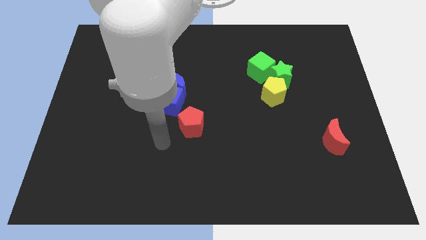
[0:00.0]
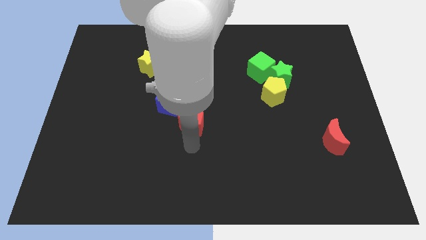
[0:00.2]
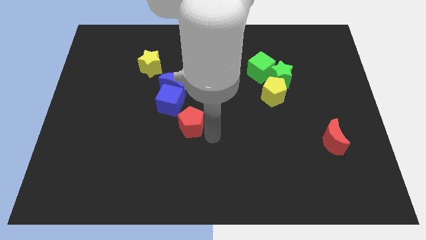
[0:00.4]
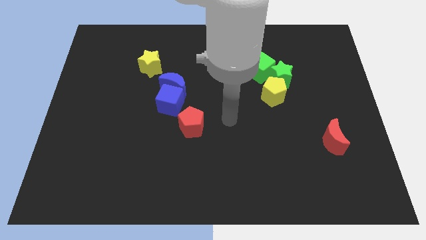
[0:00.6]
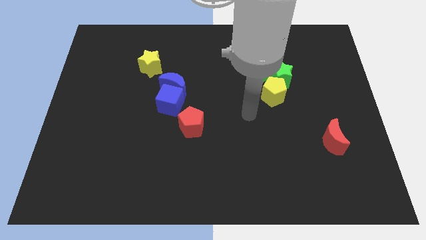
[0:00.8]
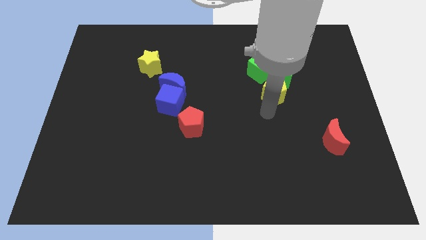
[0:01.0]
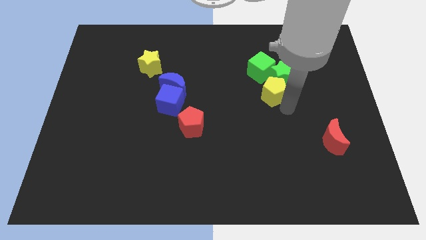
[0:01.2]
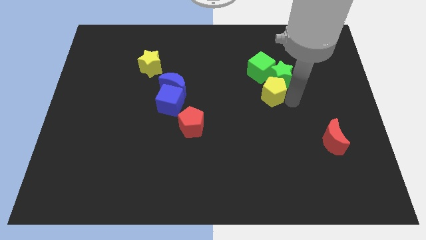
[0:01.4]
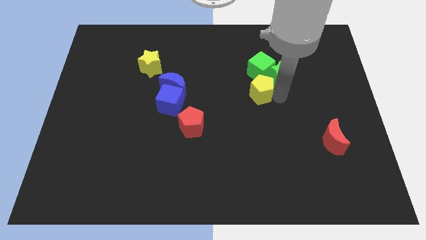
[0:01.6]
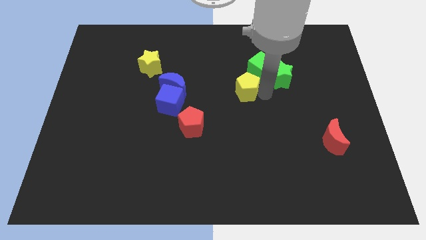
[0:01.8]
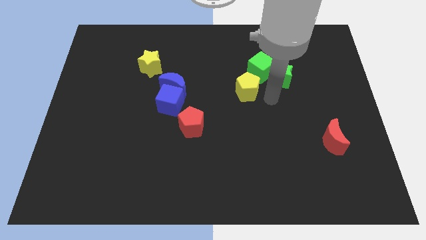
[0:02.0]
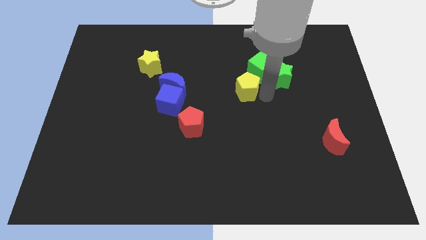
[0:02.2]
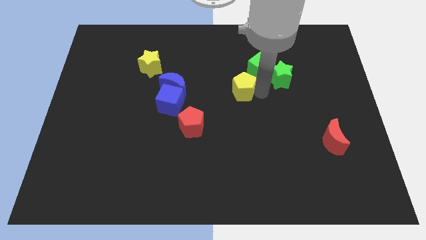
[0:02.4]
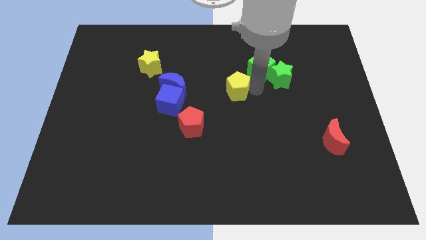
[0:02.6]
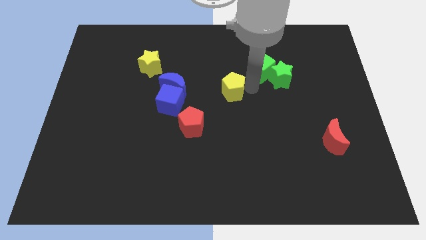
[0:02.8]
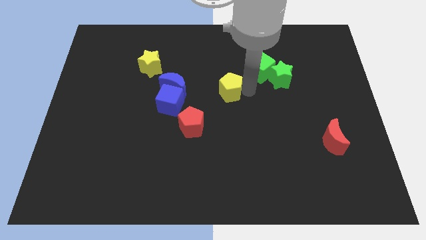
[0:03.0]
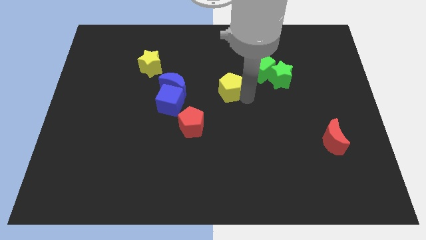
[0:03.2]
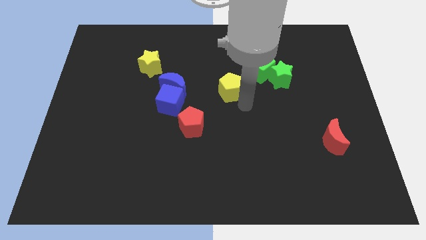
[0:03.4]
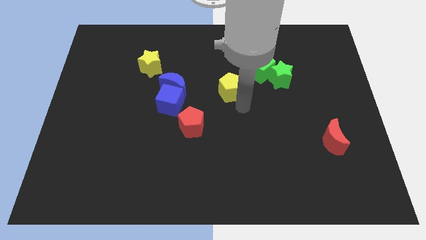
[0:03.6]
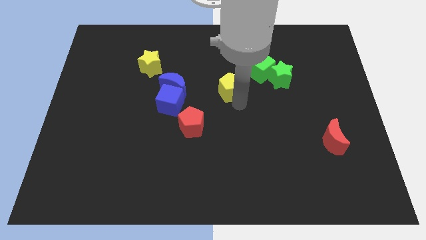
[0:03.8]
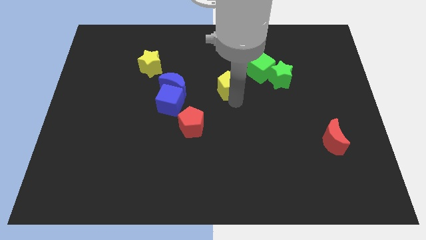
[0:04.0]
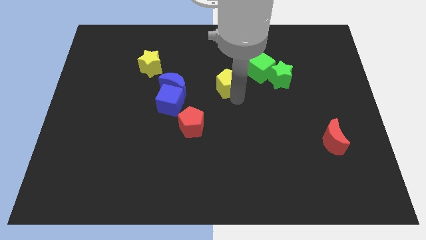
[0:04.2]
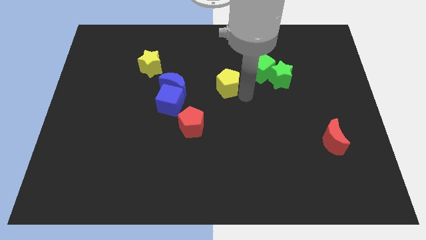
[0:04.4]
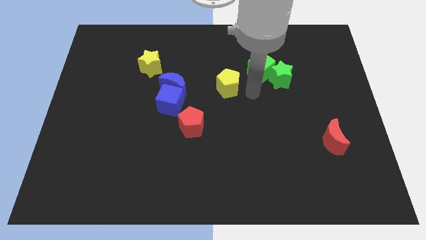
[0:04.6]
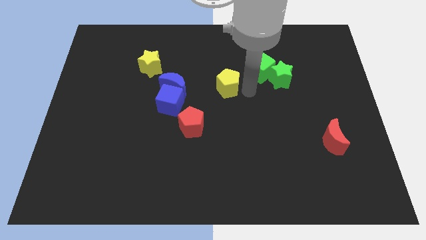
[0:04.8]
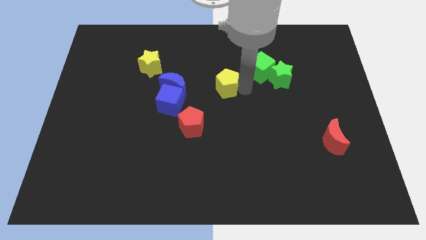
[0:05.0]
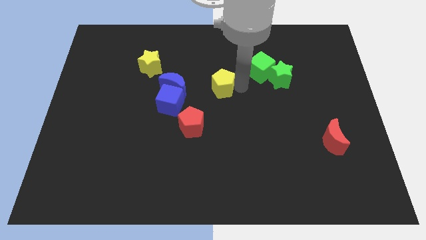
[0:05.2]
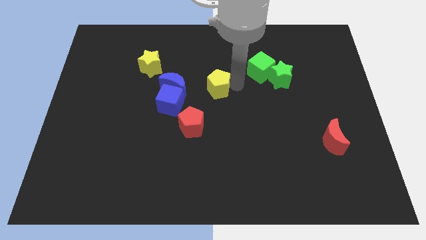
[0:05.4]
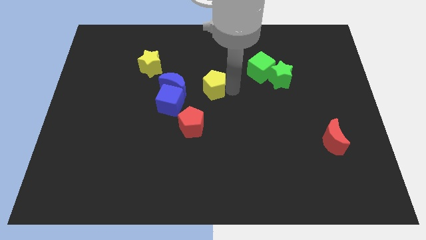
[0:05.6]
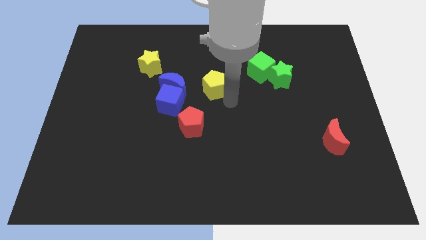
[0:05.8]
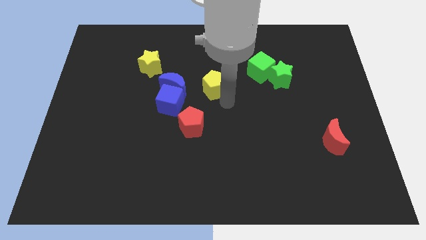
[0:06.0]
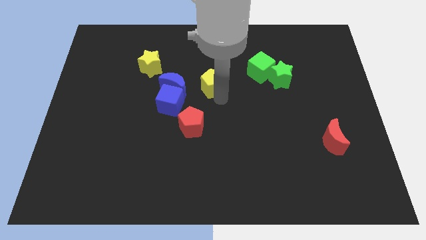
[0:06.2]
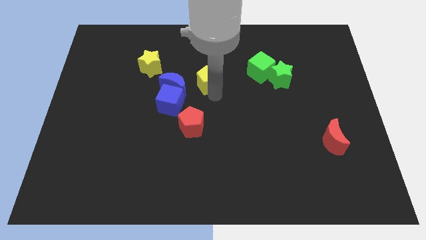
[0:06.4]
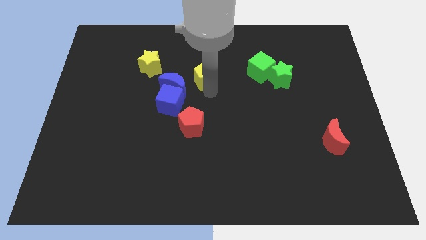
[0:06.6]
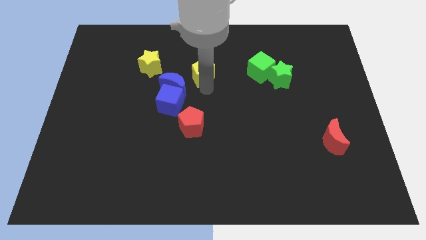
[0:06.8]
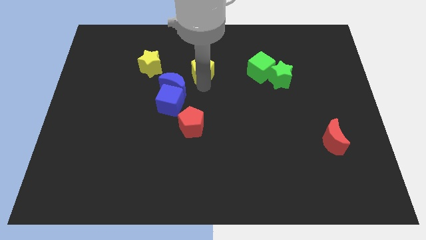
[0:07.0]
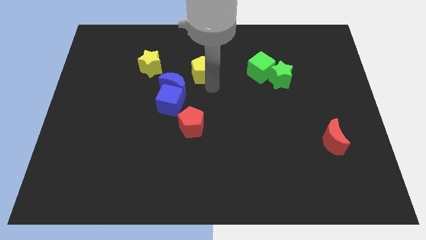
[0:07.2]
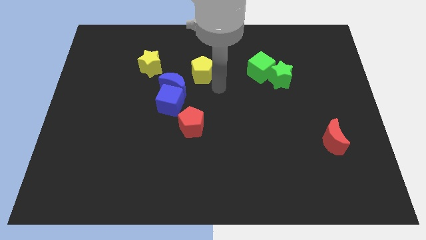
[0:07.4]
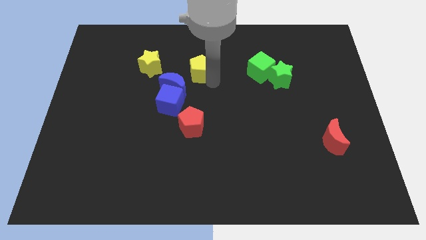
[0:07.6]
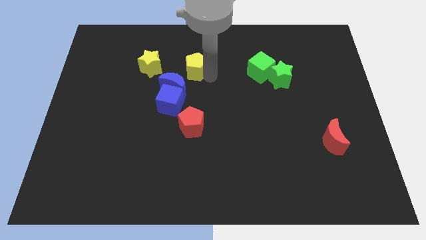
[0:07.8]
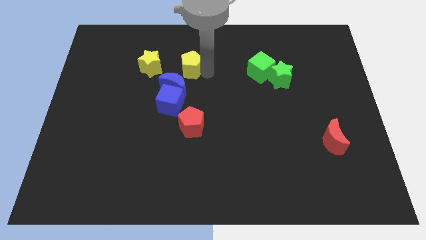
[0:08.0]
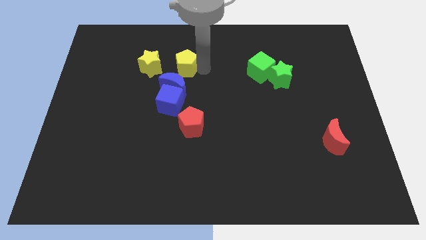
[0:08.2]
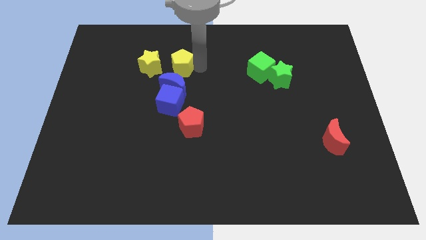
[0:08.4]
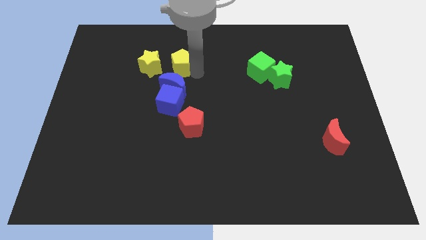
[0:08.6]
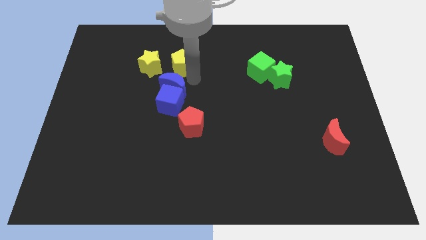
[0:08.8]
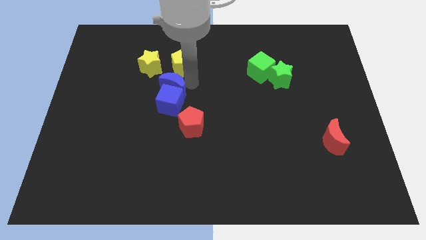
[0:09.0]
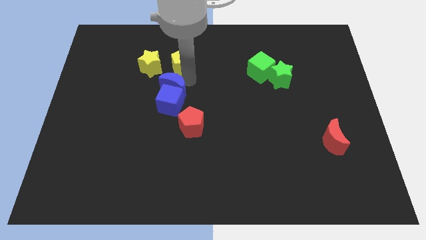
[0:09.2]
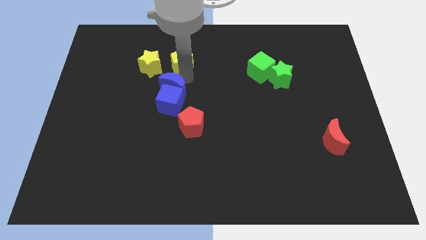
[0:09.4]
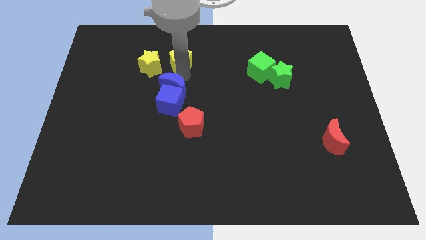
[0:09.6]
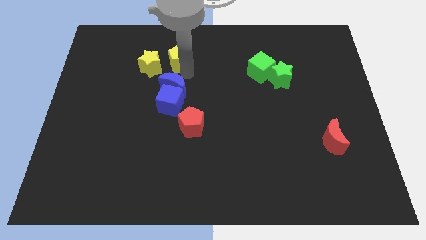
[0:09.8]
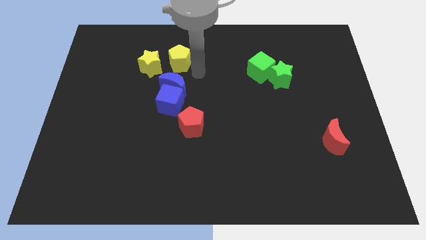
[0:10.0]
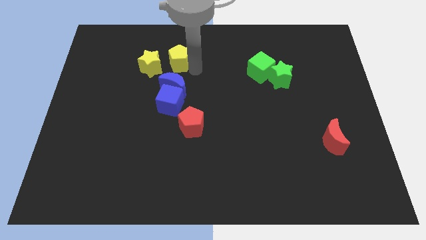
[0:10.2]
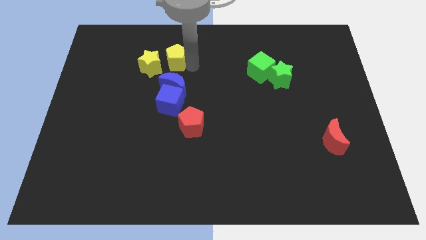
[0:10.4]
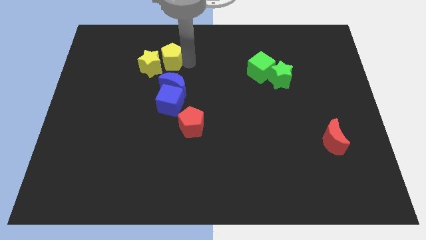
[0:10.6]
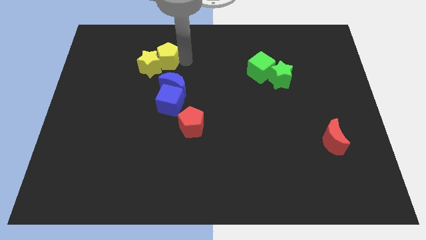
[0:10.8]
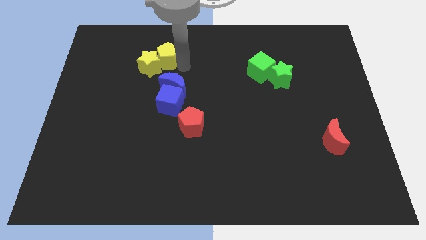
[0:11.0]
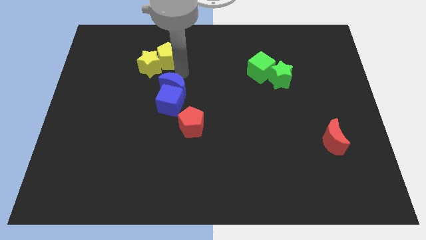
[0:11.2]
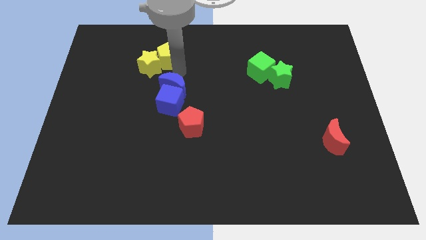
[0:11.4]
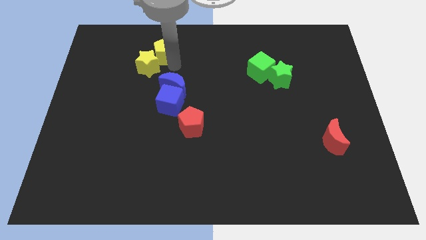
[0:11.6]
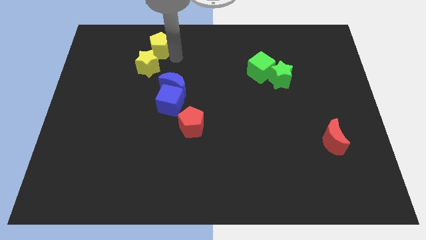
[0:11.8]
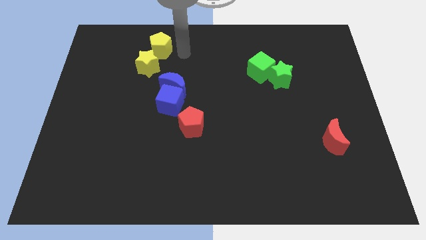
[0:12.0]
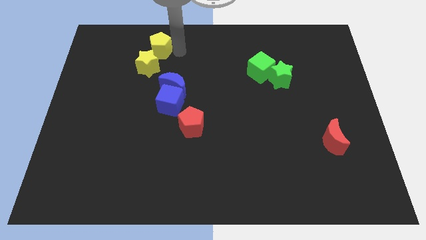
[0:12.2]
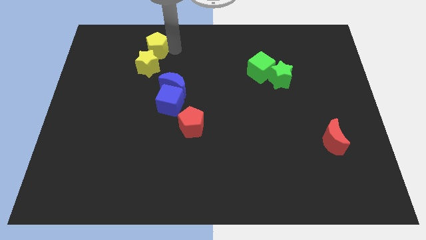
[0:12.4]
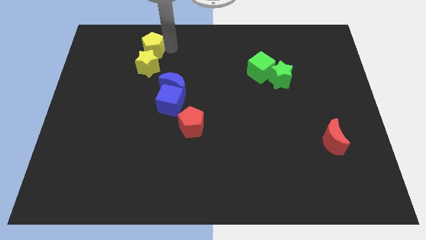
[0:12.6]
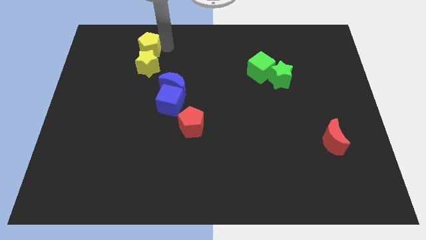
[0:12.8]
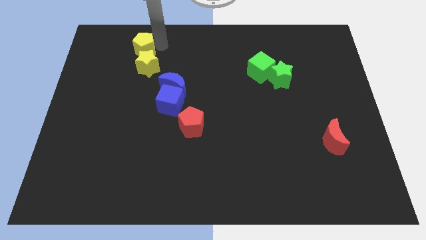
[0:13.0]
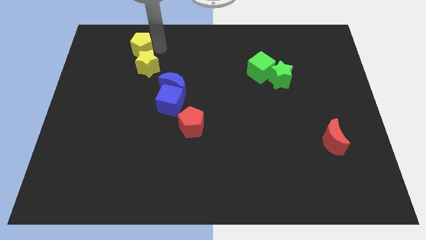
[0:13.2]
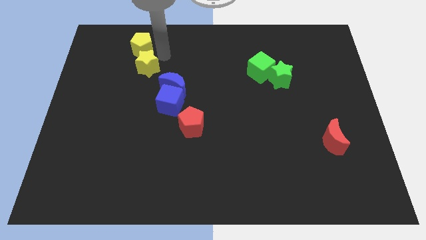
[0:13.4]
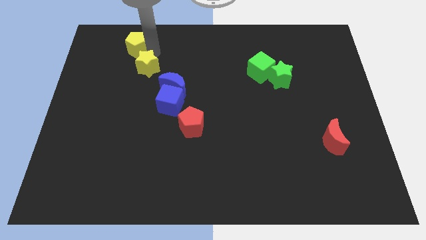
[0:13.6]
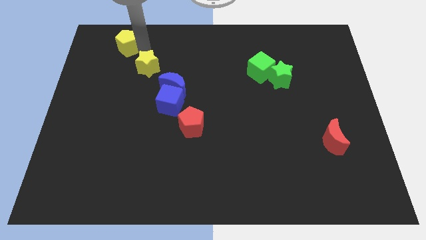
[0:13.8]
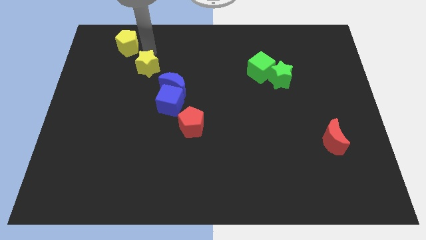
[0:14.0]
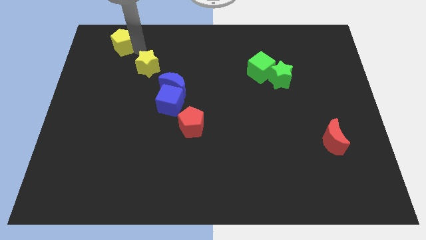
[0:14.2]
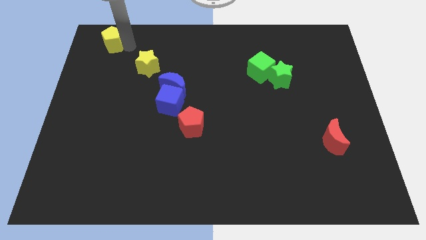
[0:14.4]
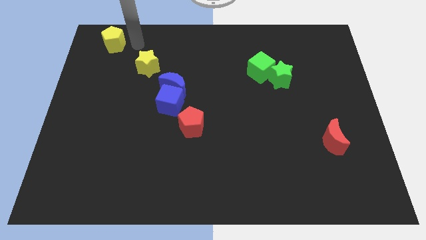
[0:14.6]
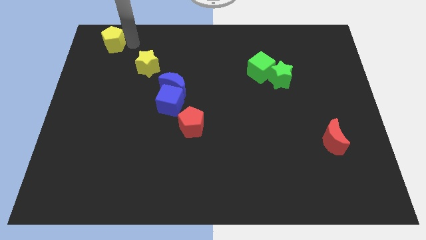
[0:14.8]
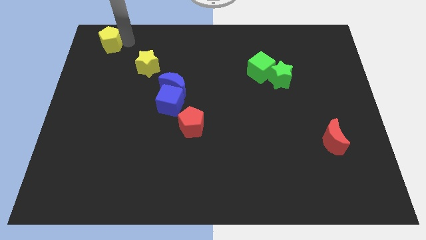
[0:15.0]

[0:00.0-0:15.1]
move the yellow pentagon to the top left of the board
